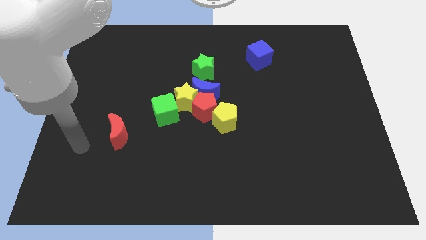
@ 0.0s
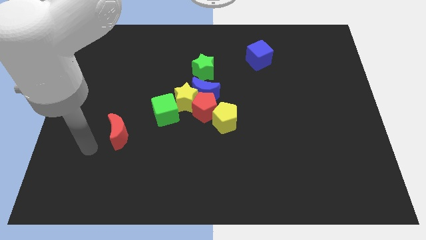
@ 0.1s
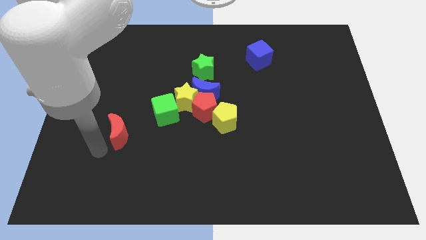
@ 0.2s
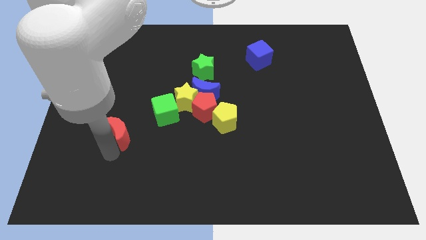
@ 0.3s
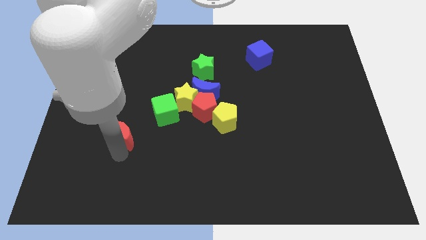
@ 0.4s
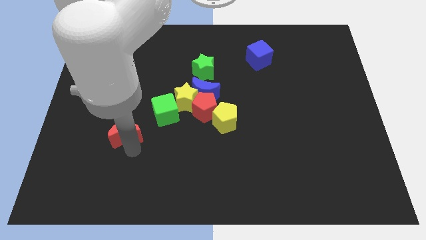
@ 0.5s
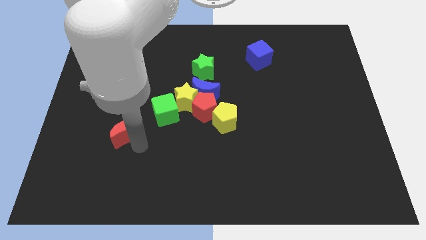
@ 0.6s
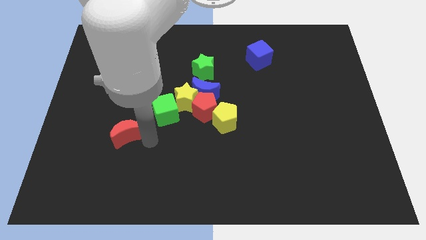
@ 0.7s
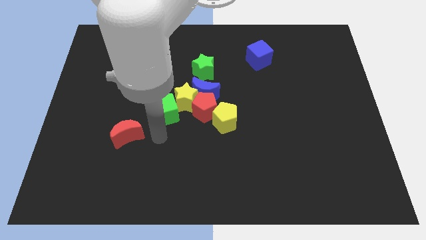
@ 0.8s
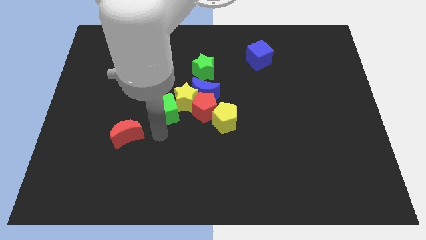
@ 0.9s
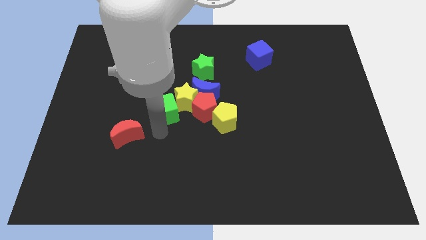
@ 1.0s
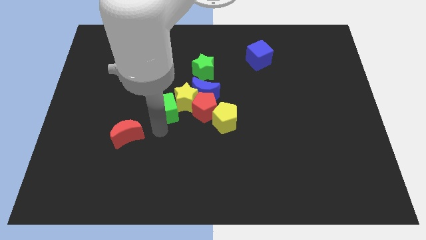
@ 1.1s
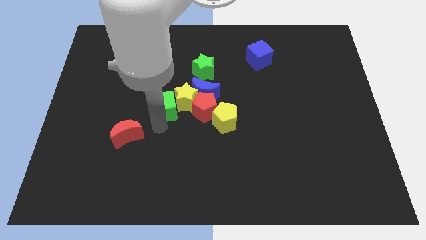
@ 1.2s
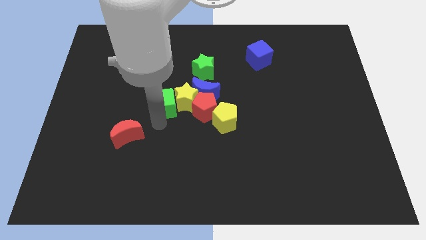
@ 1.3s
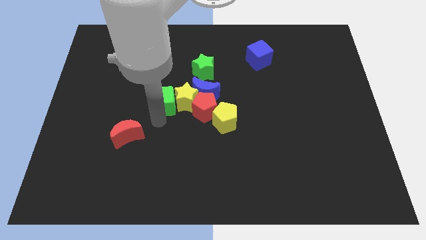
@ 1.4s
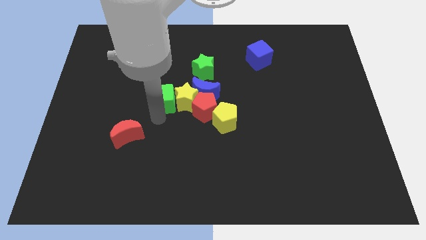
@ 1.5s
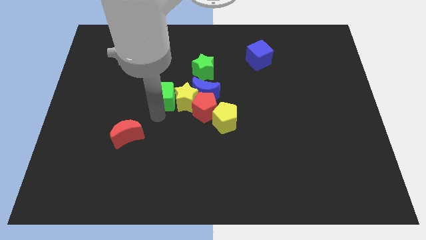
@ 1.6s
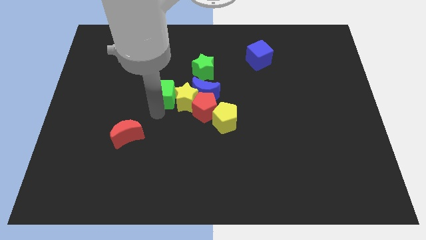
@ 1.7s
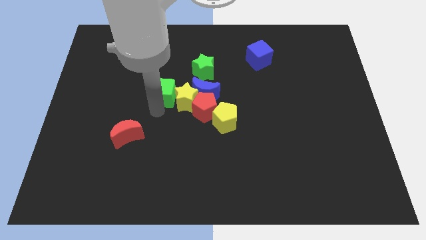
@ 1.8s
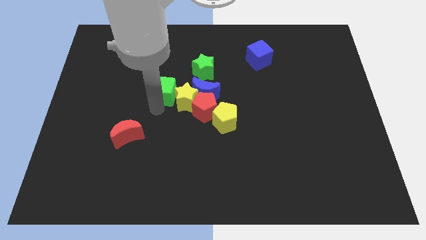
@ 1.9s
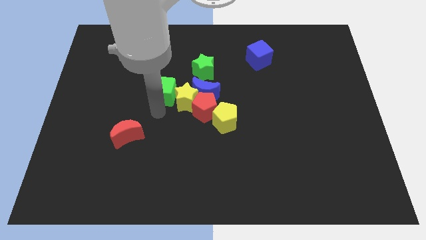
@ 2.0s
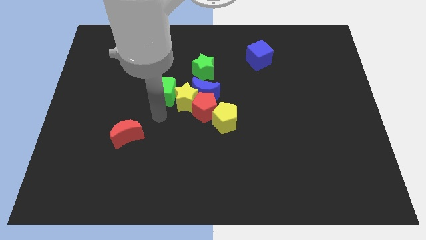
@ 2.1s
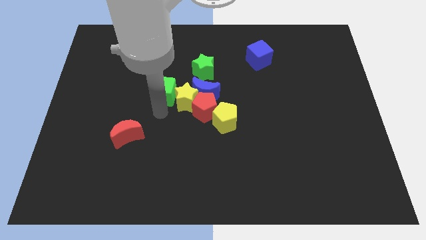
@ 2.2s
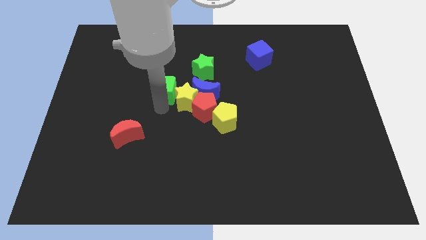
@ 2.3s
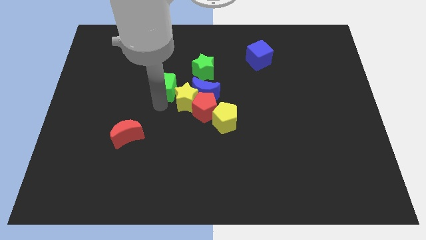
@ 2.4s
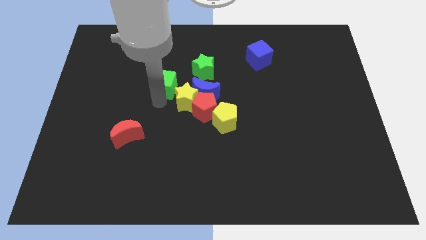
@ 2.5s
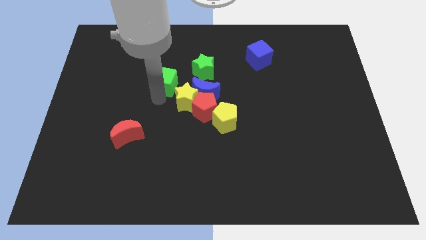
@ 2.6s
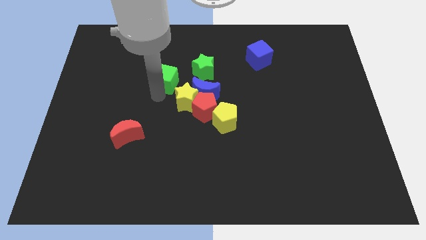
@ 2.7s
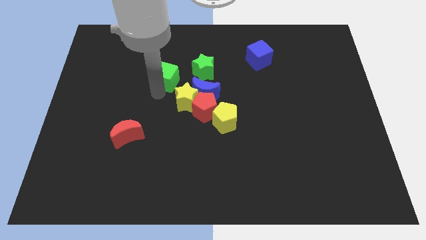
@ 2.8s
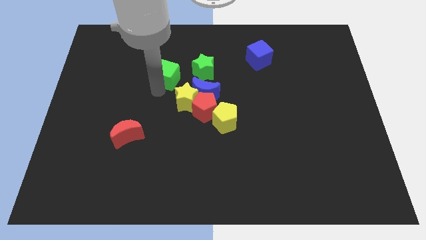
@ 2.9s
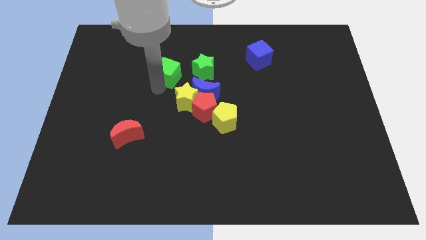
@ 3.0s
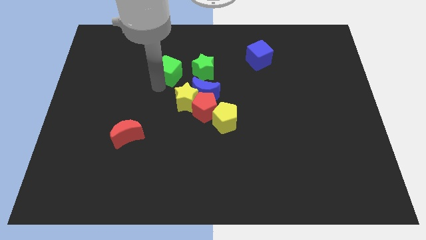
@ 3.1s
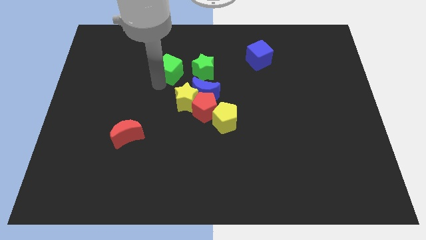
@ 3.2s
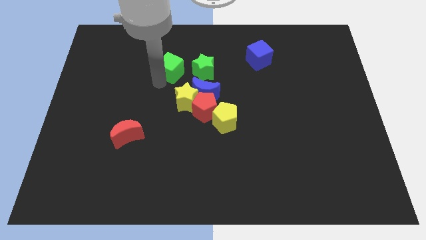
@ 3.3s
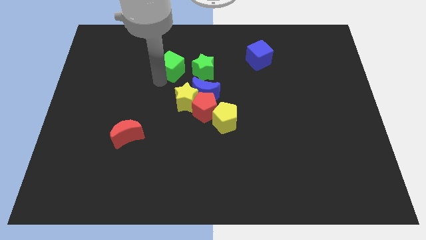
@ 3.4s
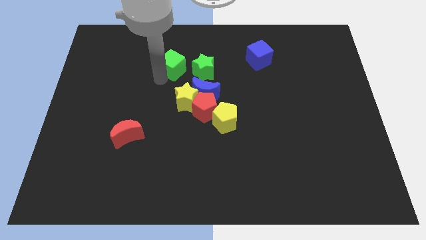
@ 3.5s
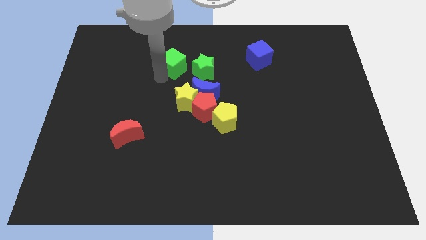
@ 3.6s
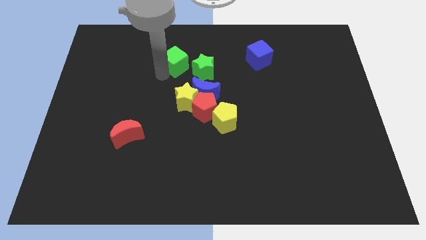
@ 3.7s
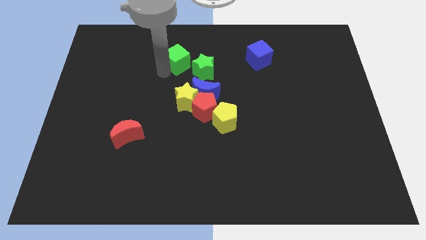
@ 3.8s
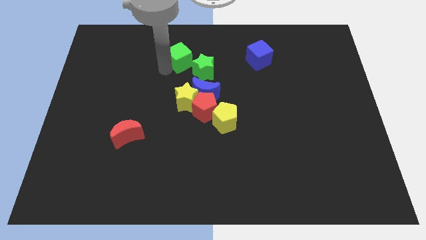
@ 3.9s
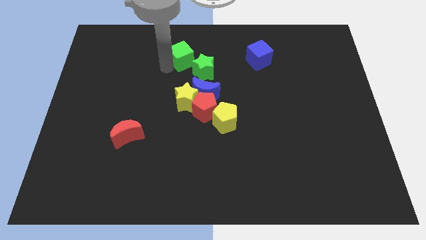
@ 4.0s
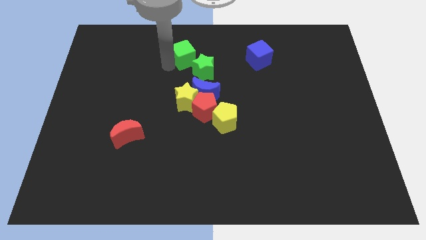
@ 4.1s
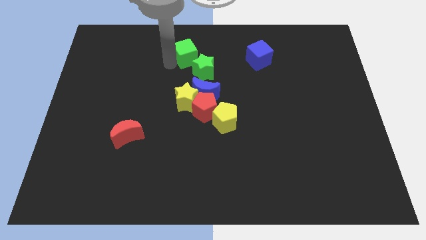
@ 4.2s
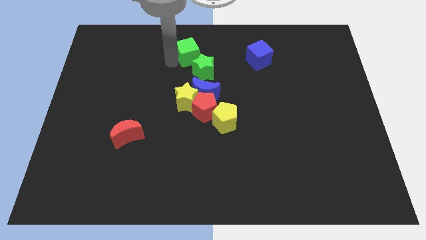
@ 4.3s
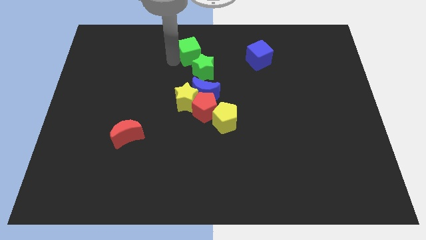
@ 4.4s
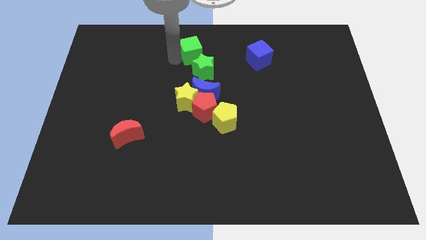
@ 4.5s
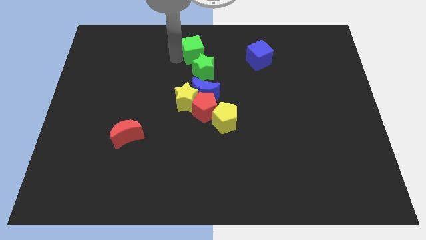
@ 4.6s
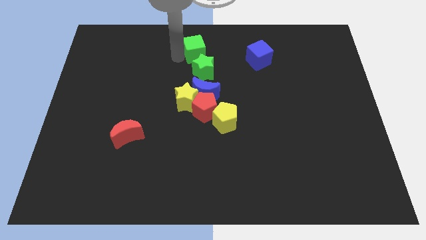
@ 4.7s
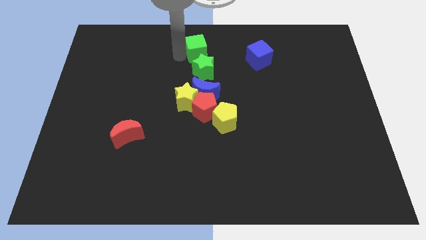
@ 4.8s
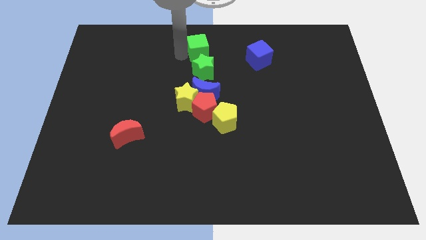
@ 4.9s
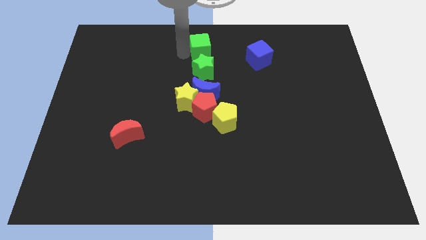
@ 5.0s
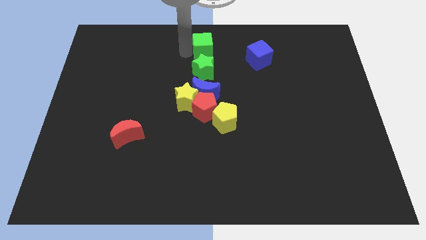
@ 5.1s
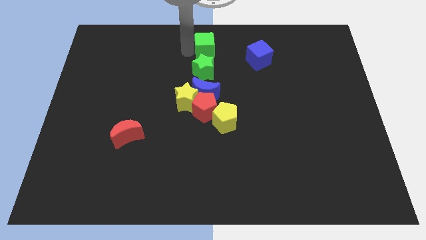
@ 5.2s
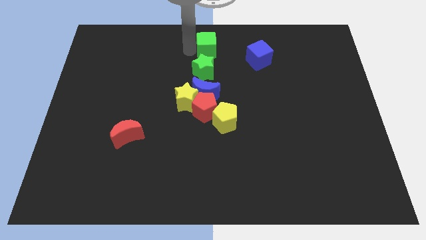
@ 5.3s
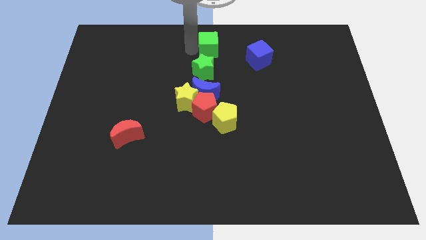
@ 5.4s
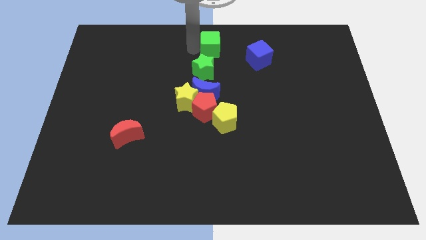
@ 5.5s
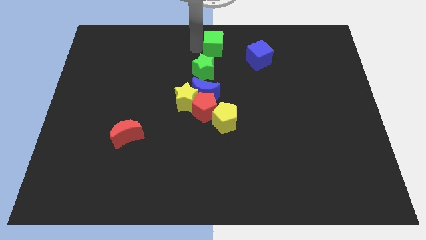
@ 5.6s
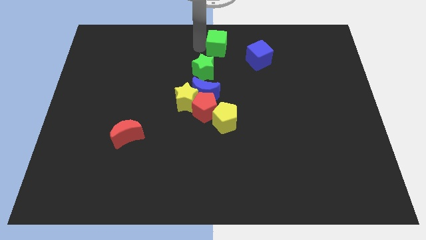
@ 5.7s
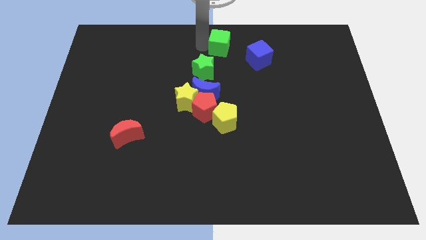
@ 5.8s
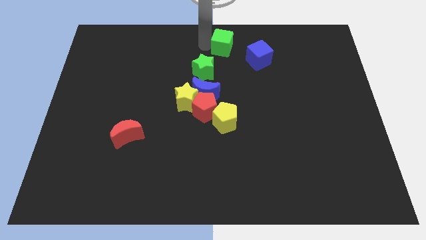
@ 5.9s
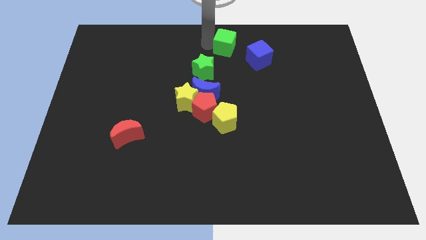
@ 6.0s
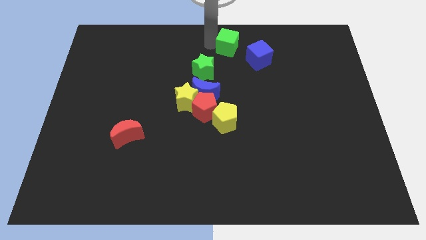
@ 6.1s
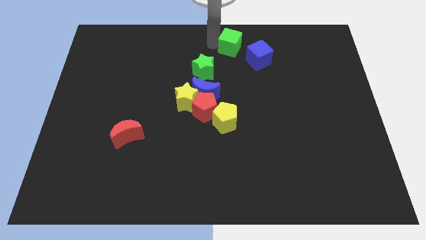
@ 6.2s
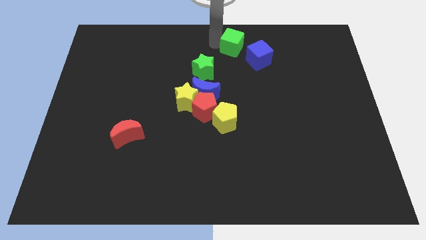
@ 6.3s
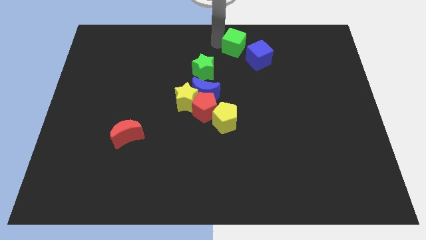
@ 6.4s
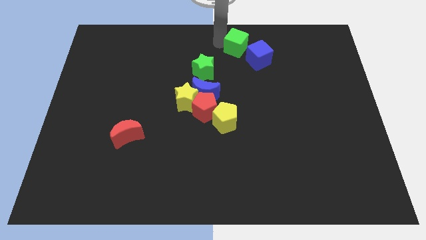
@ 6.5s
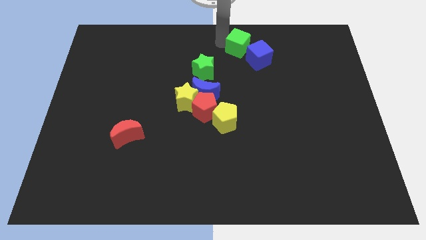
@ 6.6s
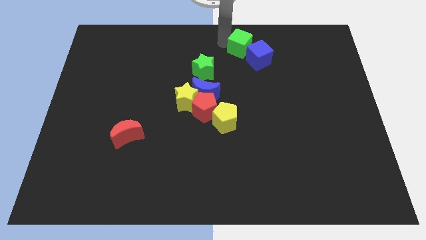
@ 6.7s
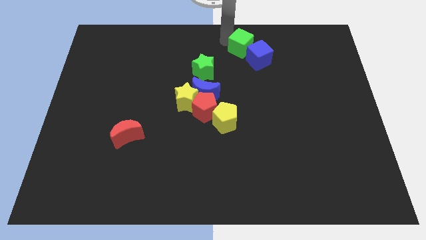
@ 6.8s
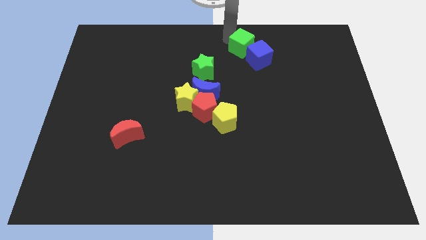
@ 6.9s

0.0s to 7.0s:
push the green cube to the blue cube
